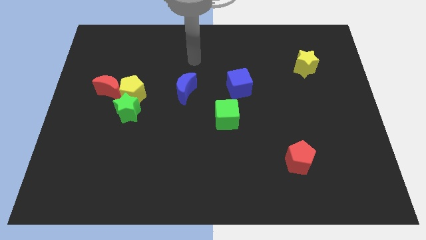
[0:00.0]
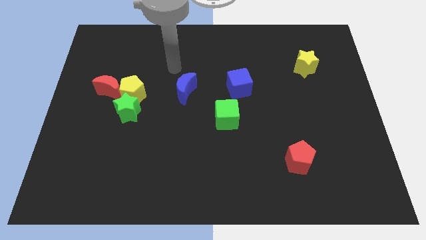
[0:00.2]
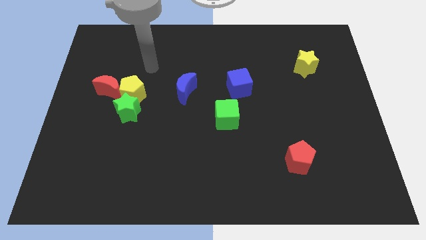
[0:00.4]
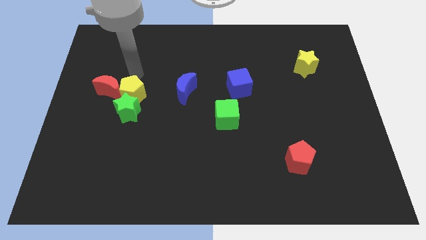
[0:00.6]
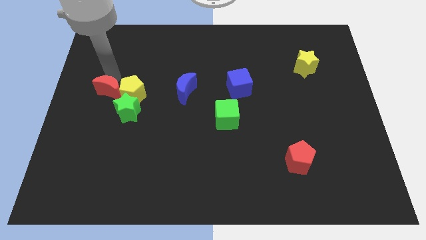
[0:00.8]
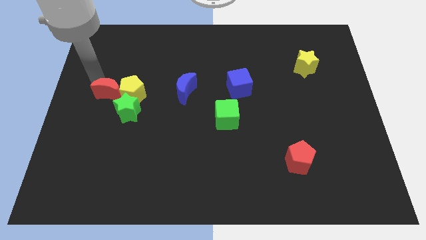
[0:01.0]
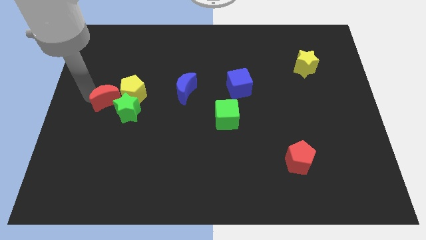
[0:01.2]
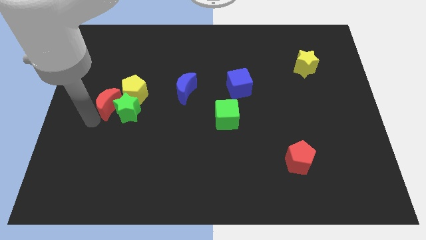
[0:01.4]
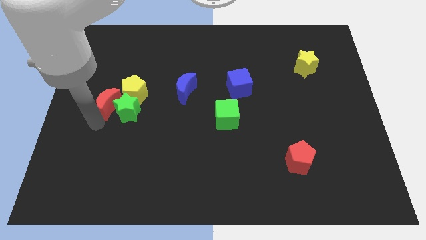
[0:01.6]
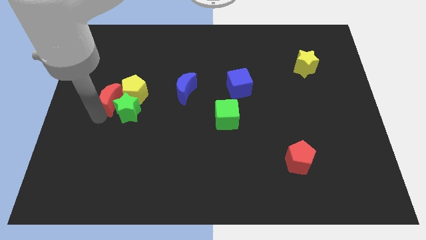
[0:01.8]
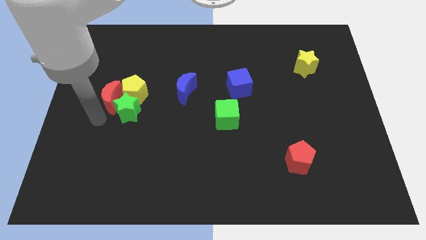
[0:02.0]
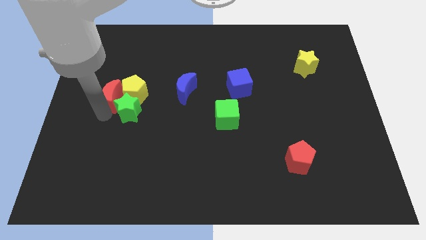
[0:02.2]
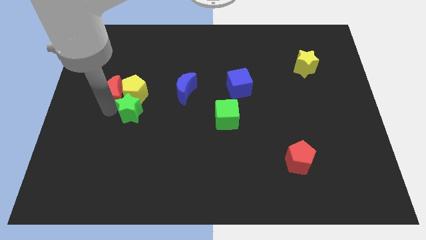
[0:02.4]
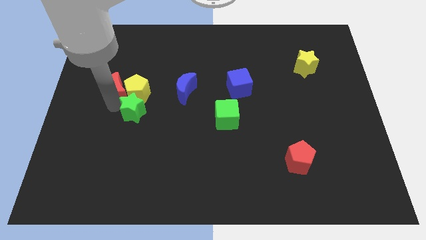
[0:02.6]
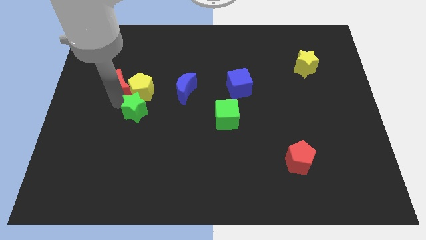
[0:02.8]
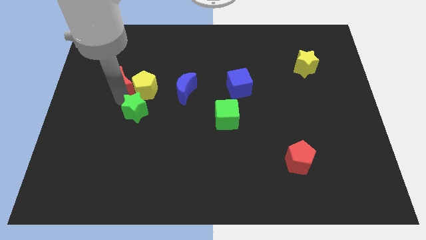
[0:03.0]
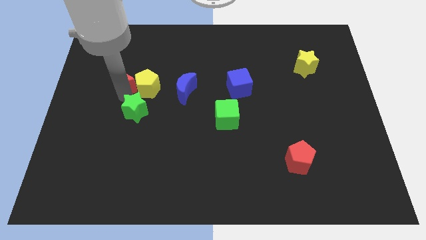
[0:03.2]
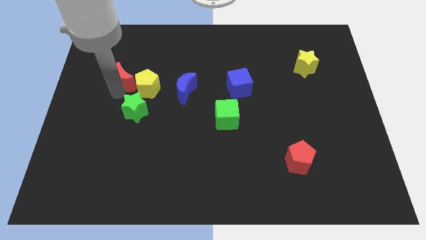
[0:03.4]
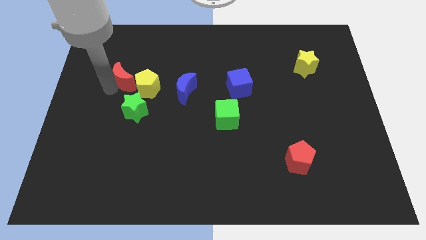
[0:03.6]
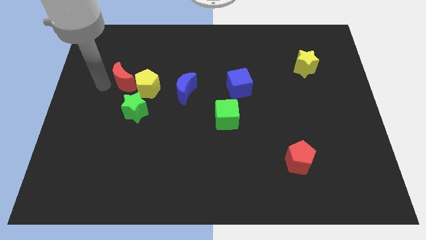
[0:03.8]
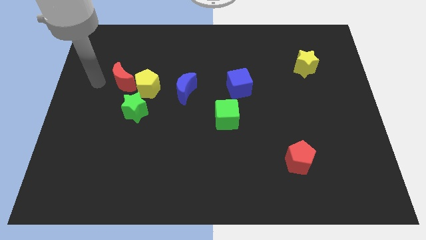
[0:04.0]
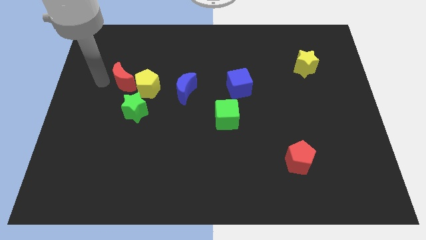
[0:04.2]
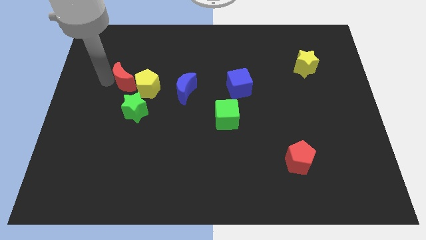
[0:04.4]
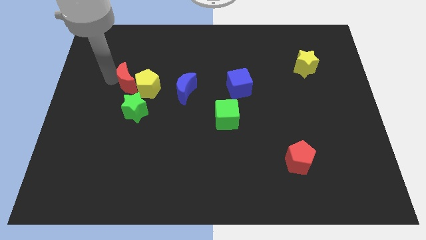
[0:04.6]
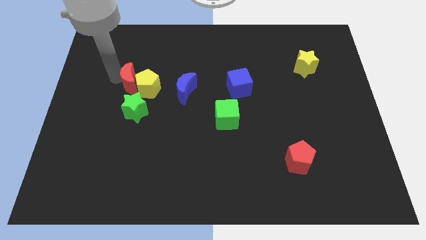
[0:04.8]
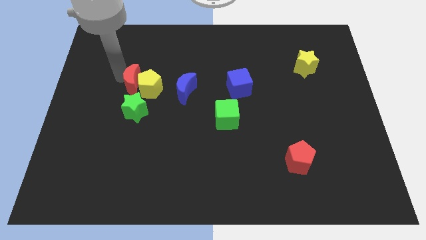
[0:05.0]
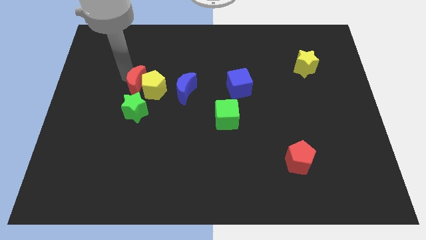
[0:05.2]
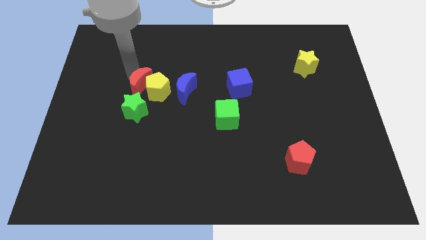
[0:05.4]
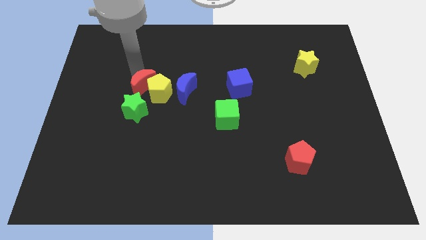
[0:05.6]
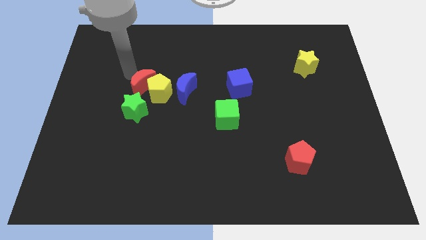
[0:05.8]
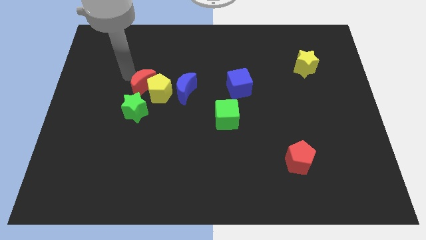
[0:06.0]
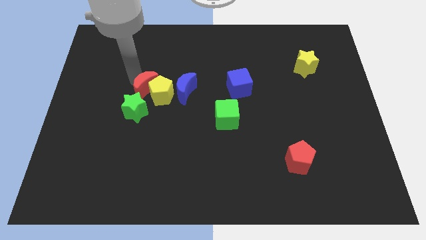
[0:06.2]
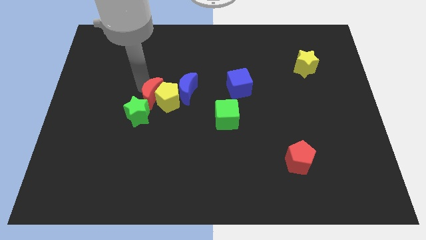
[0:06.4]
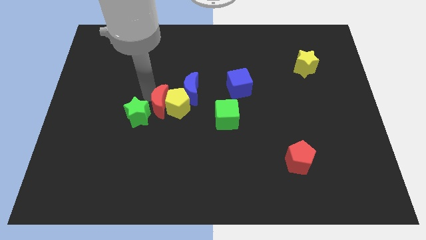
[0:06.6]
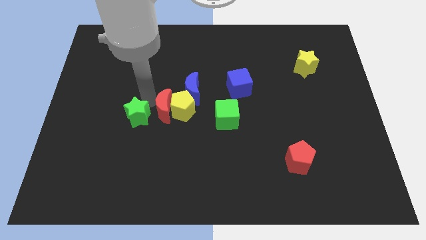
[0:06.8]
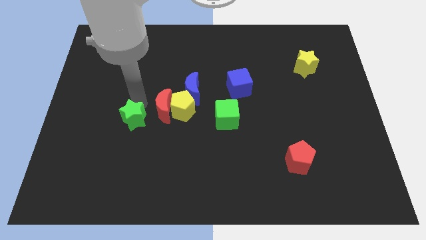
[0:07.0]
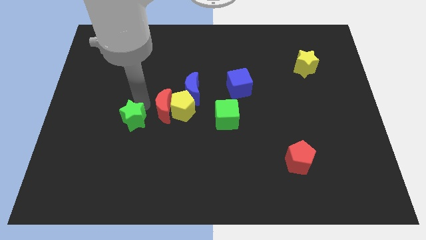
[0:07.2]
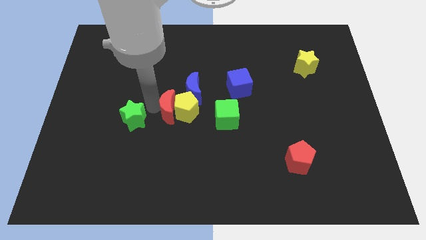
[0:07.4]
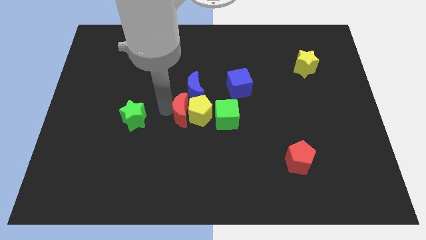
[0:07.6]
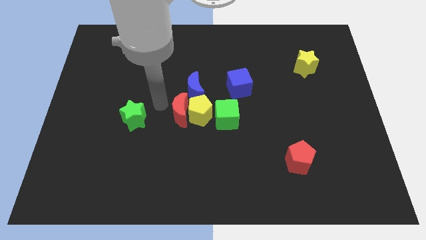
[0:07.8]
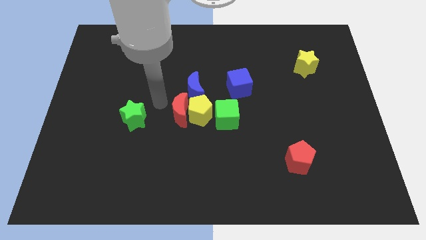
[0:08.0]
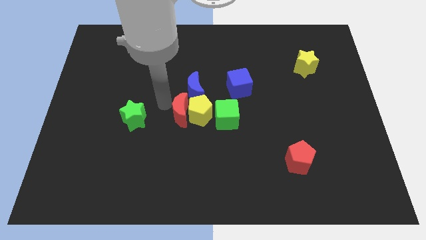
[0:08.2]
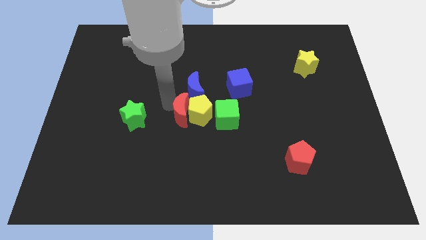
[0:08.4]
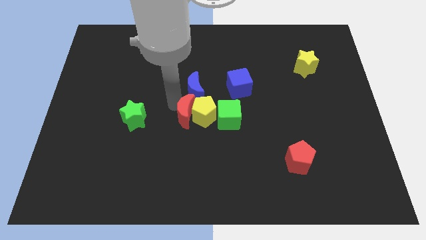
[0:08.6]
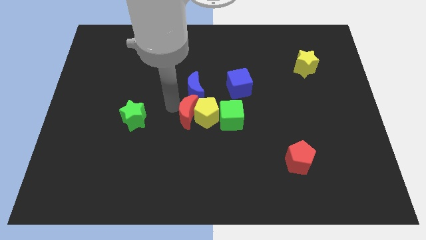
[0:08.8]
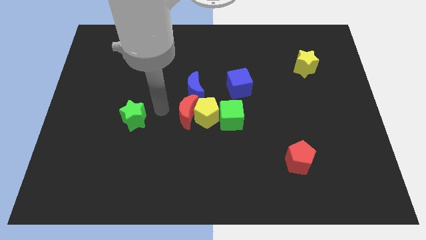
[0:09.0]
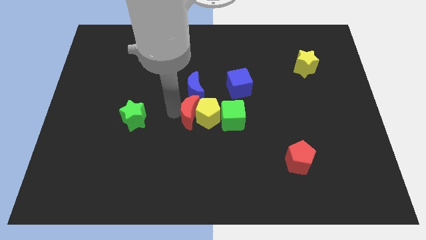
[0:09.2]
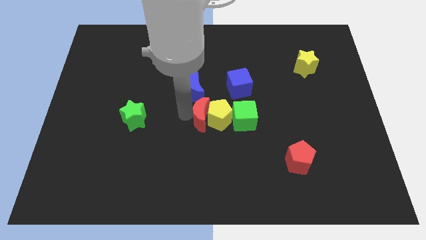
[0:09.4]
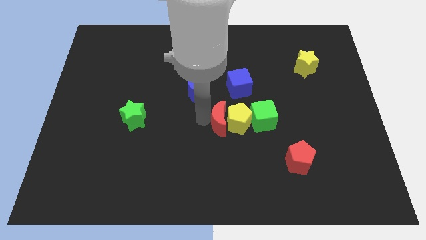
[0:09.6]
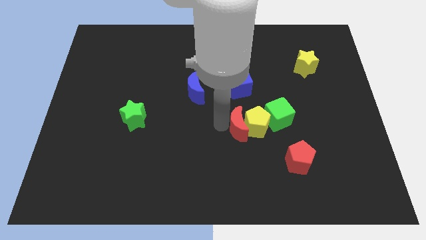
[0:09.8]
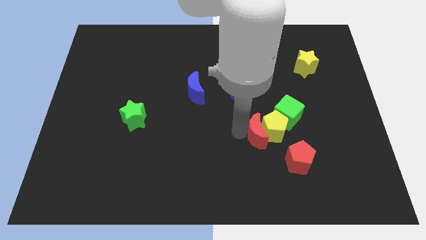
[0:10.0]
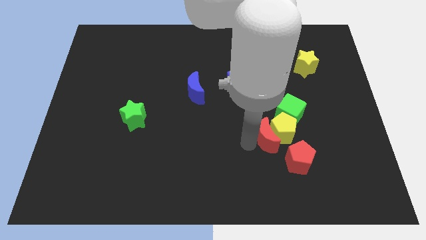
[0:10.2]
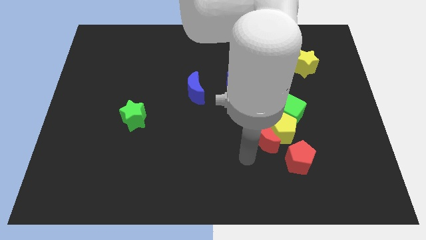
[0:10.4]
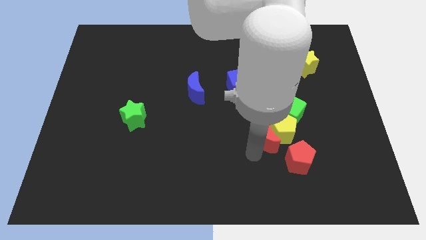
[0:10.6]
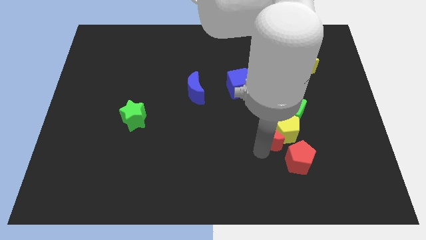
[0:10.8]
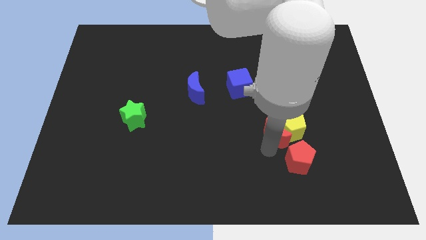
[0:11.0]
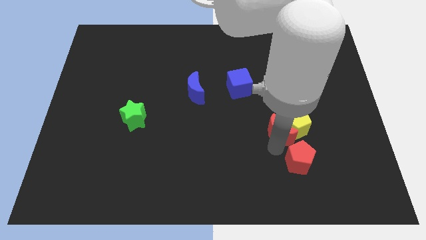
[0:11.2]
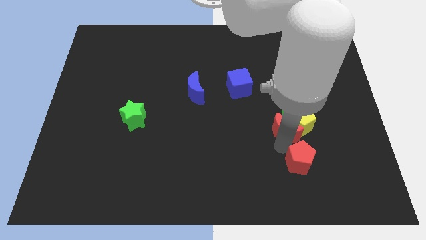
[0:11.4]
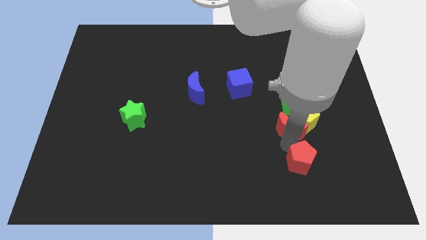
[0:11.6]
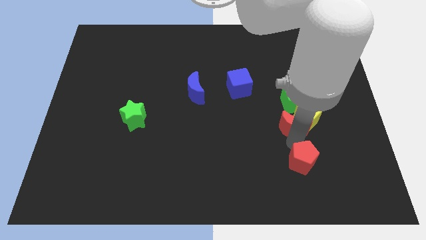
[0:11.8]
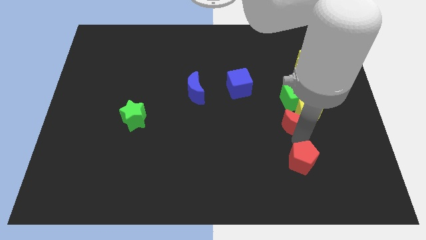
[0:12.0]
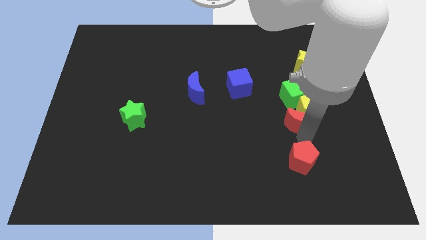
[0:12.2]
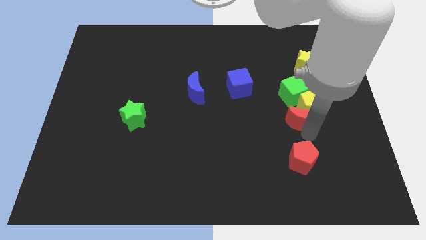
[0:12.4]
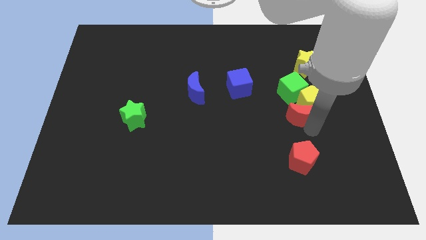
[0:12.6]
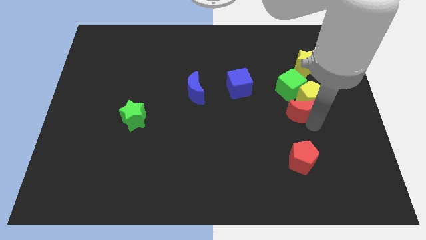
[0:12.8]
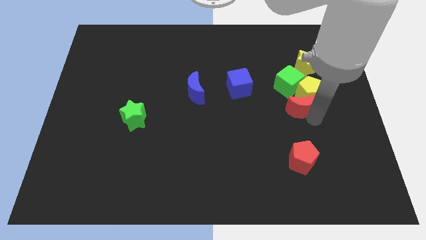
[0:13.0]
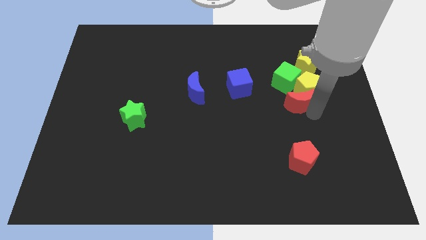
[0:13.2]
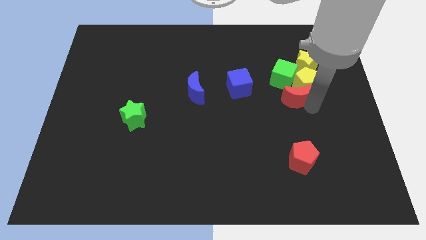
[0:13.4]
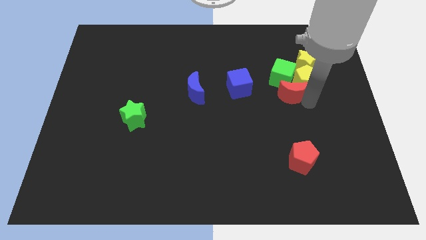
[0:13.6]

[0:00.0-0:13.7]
push the red moon next to the green cube

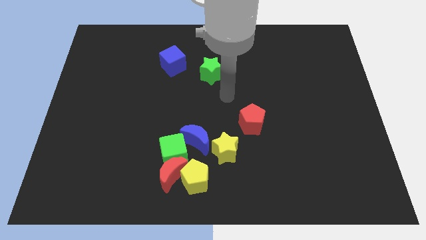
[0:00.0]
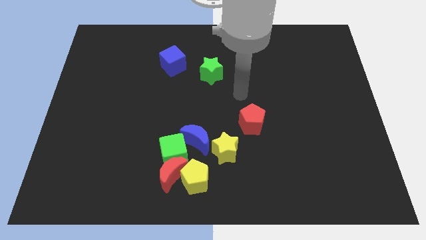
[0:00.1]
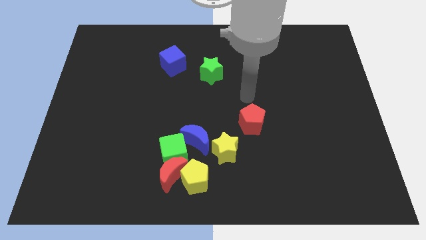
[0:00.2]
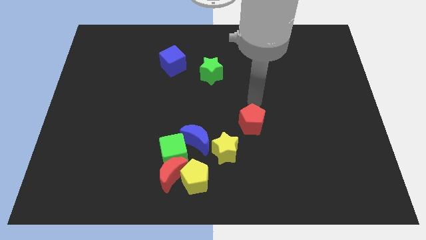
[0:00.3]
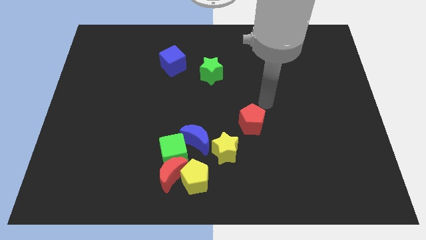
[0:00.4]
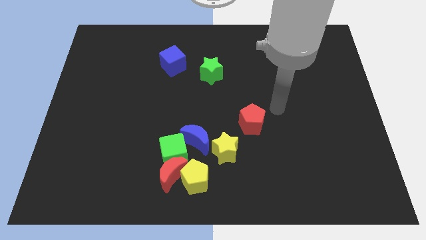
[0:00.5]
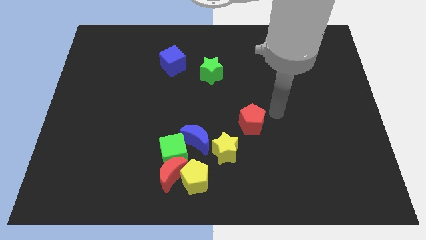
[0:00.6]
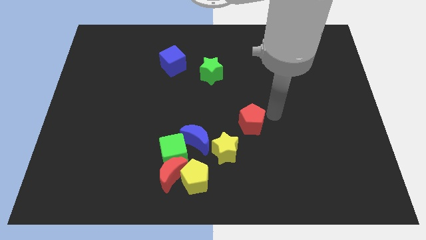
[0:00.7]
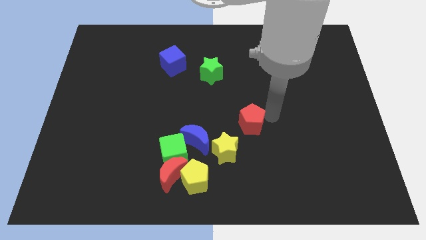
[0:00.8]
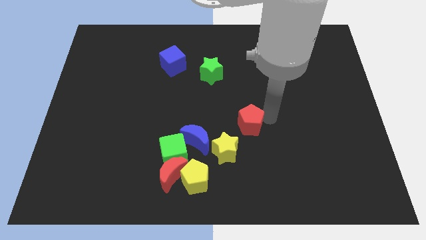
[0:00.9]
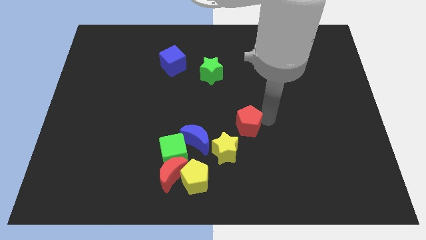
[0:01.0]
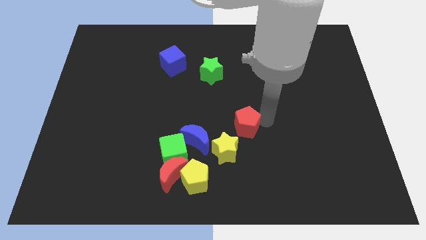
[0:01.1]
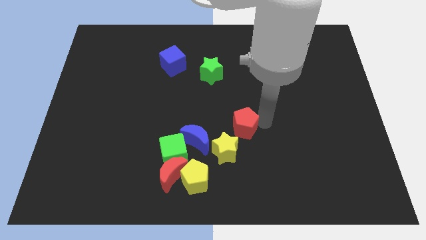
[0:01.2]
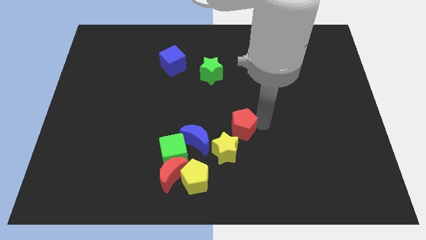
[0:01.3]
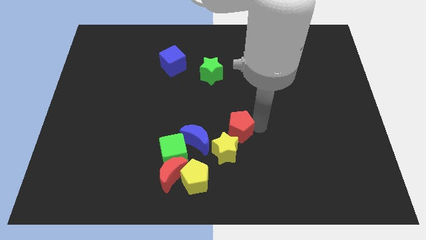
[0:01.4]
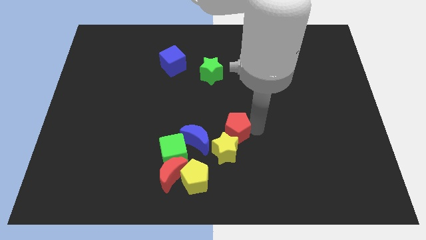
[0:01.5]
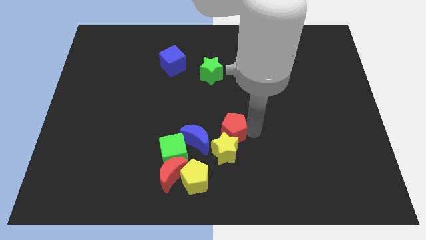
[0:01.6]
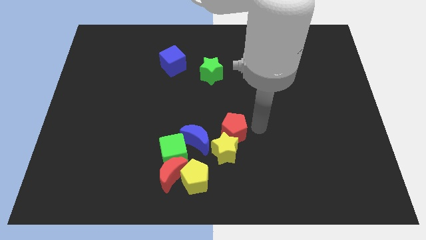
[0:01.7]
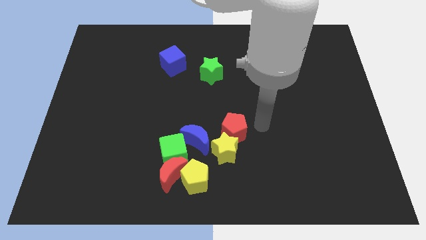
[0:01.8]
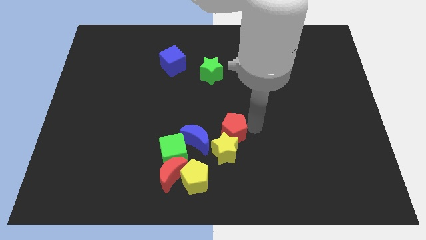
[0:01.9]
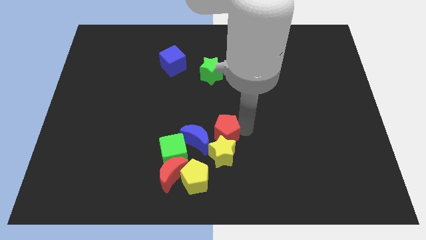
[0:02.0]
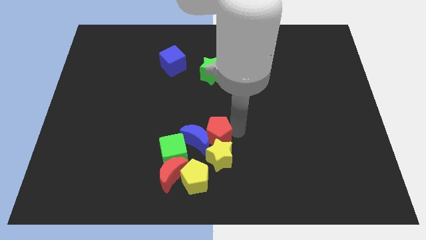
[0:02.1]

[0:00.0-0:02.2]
slide the red pentagon close to the blue moon
